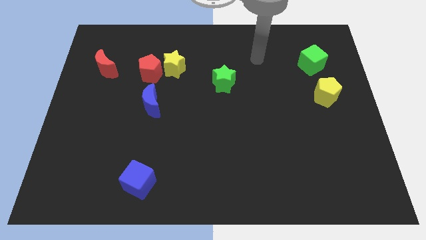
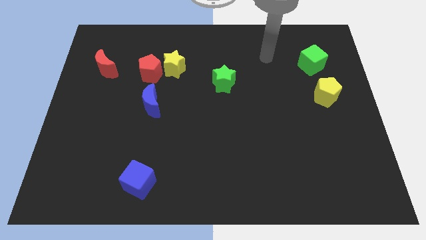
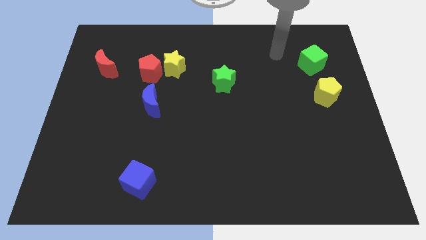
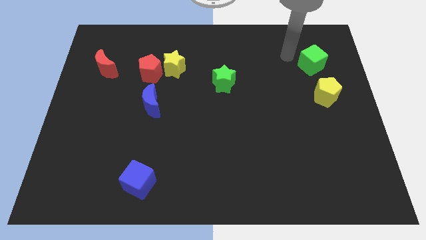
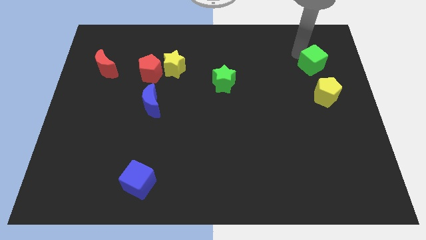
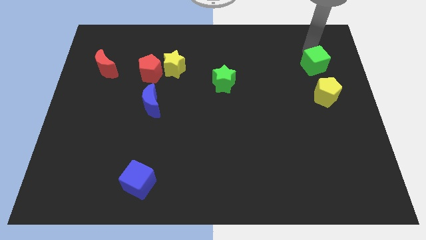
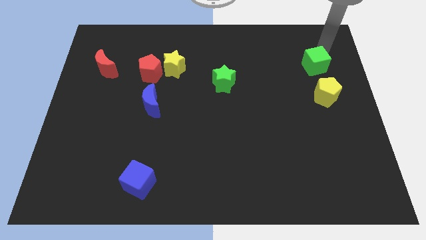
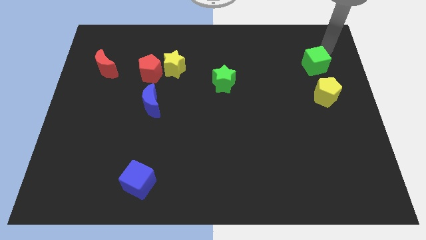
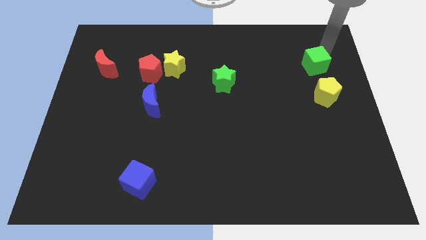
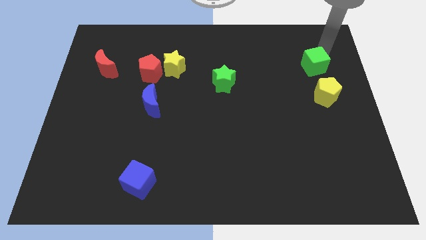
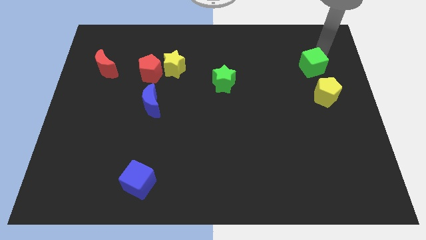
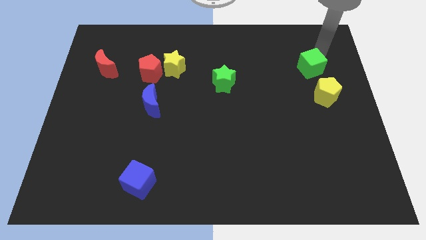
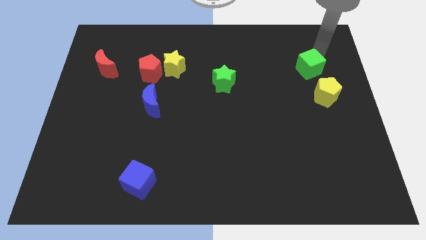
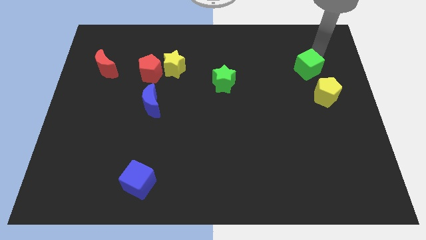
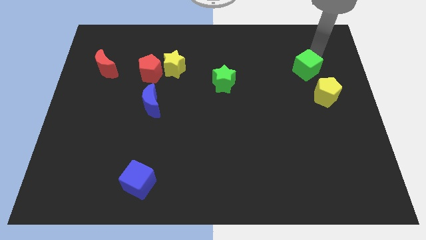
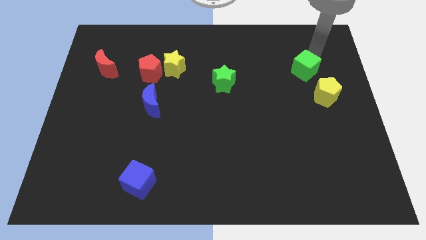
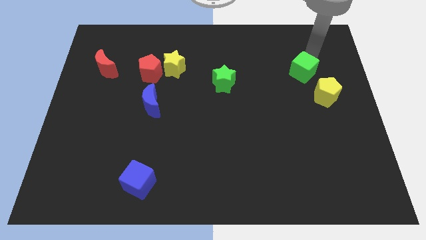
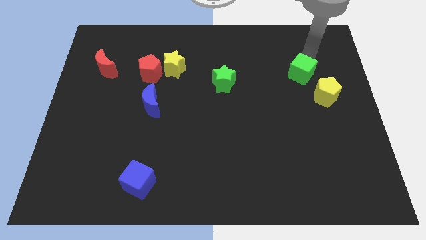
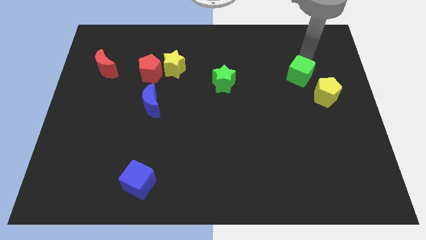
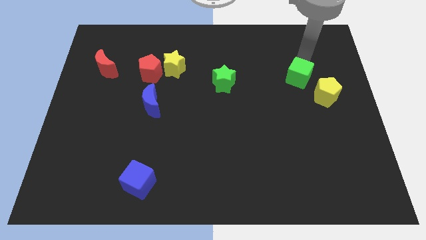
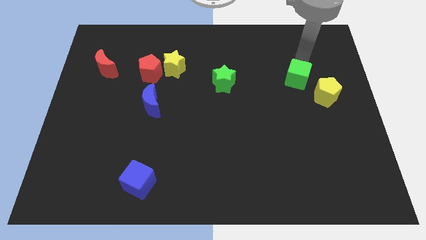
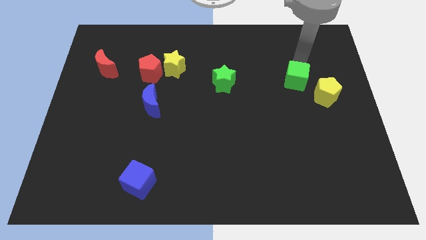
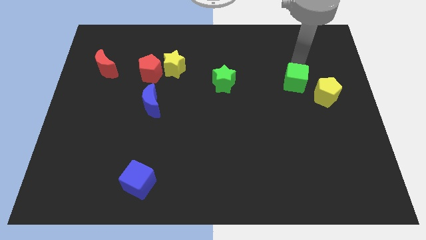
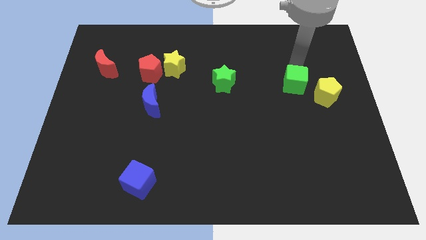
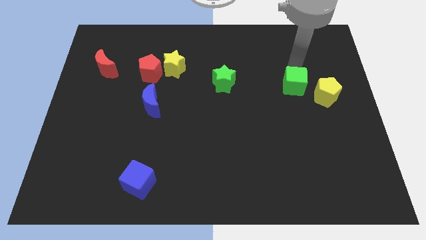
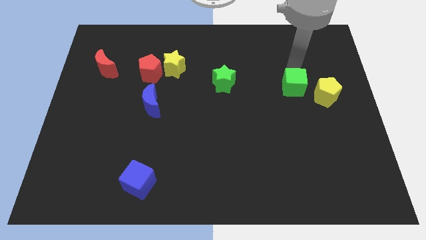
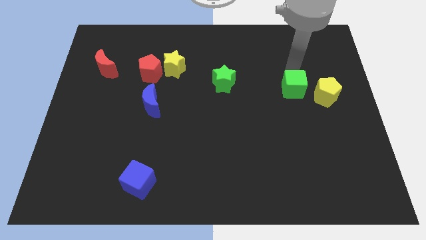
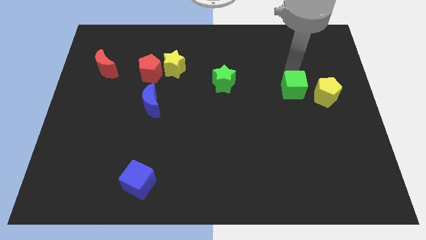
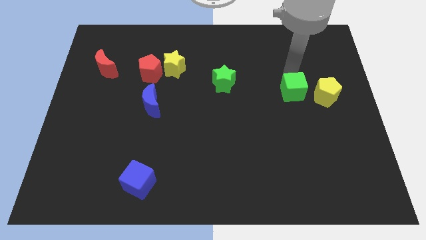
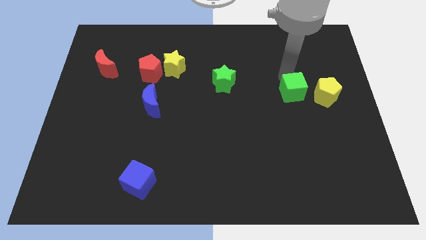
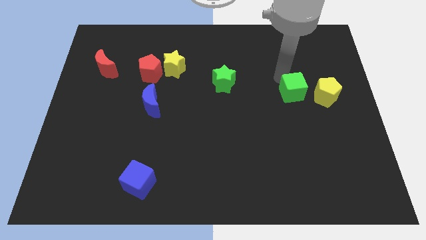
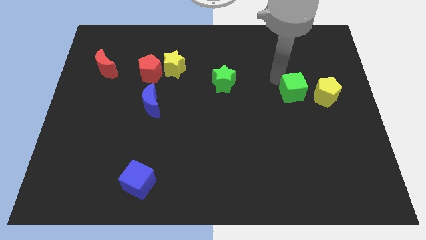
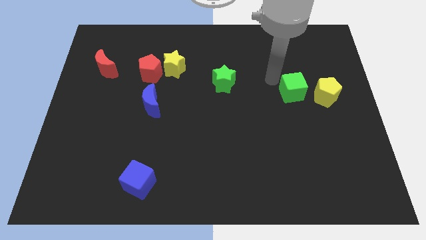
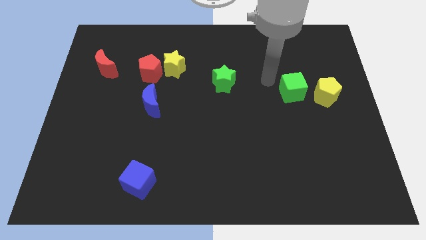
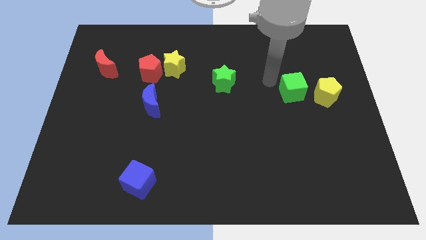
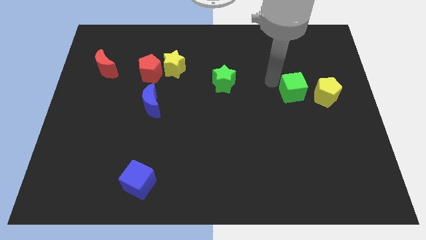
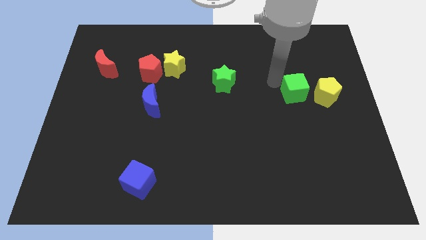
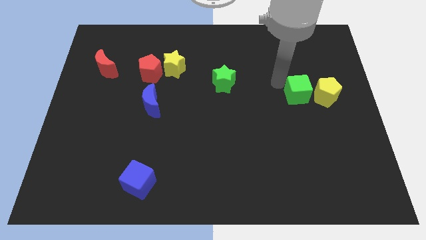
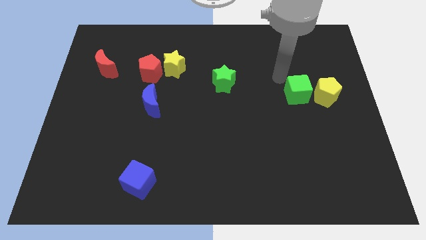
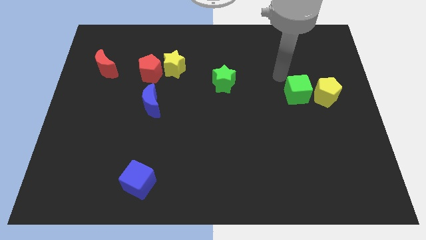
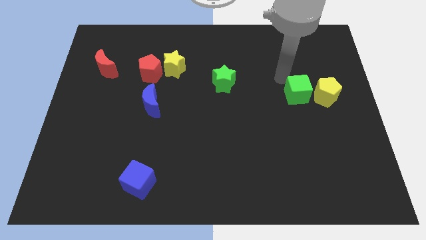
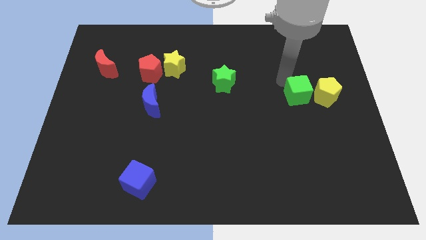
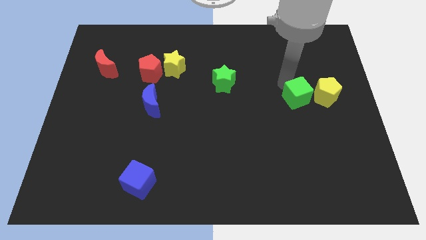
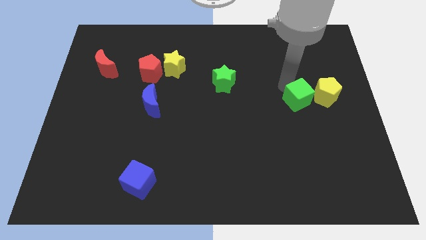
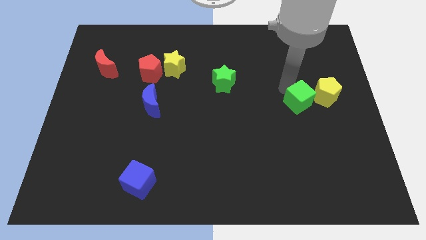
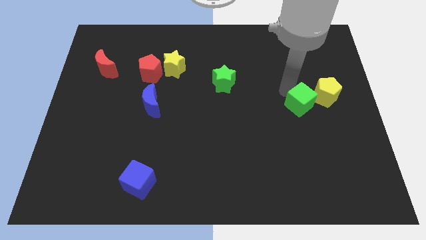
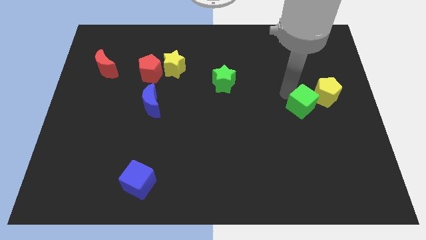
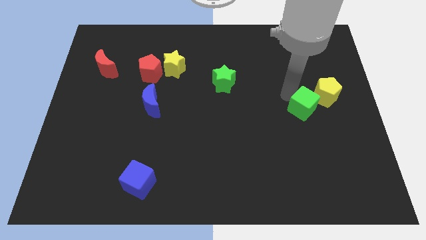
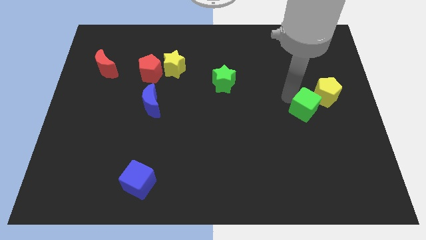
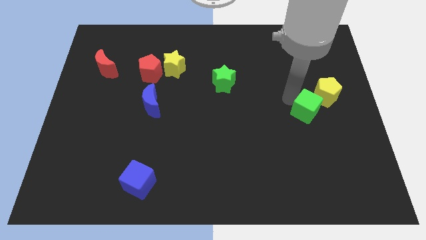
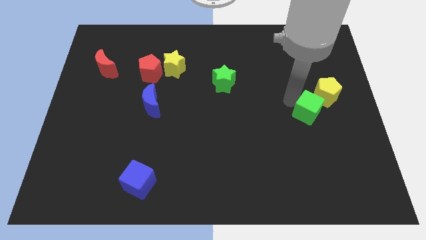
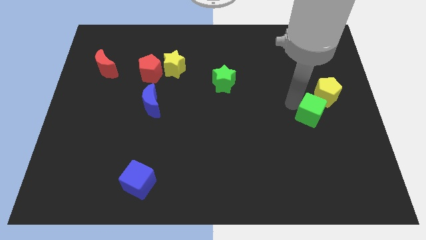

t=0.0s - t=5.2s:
move the green cube below the yellow pentagon

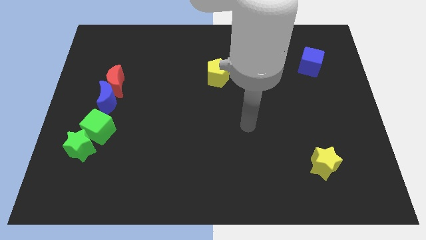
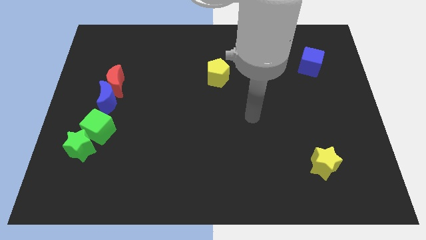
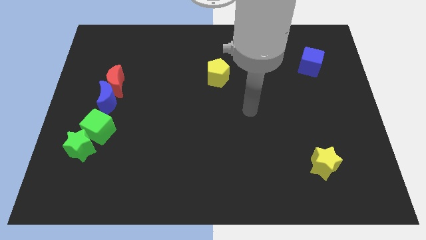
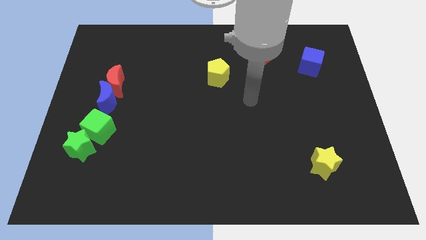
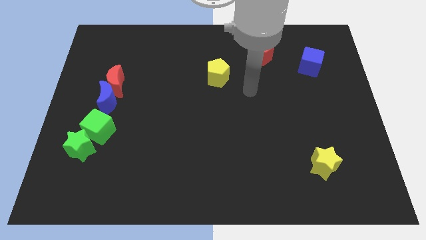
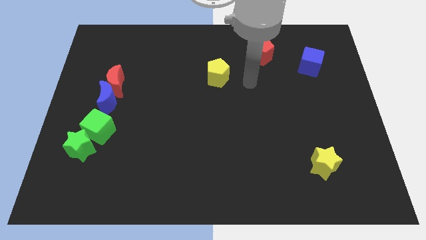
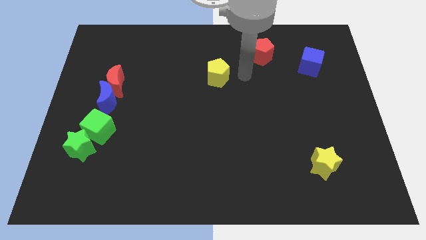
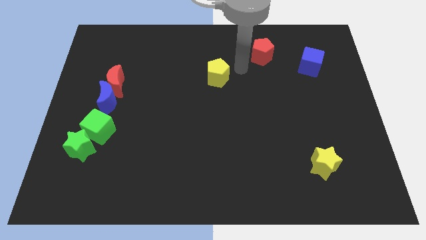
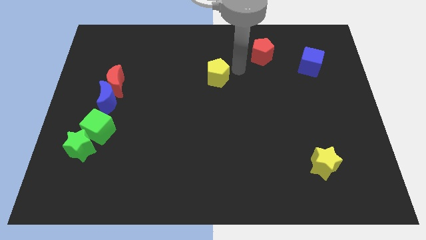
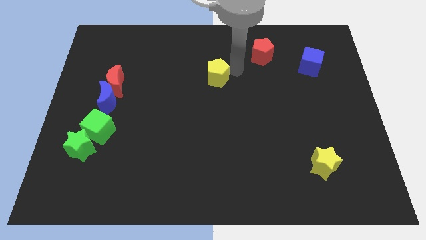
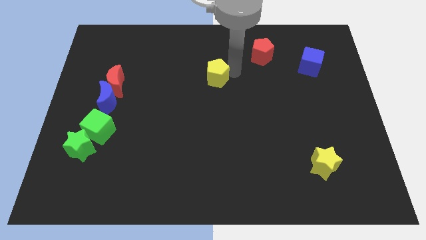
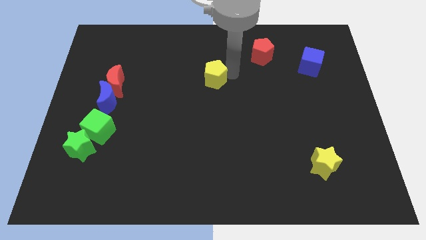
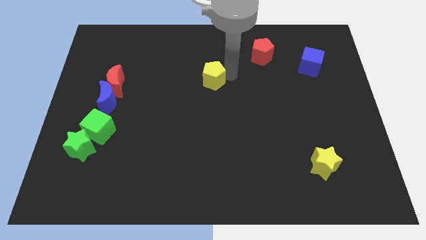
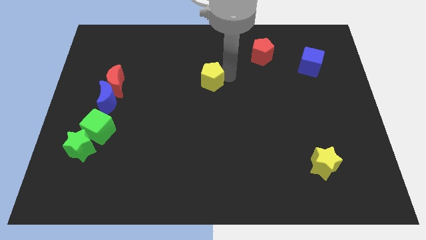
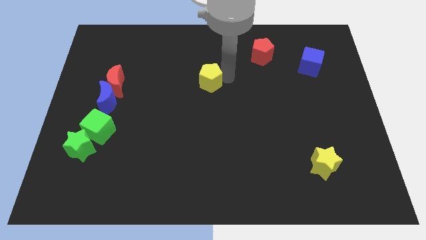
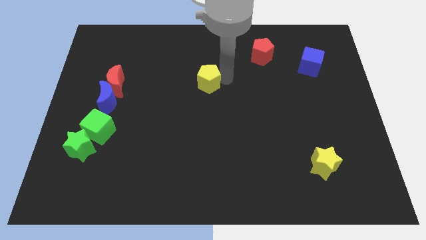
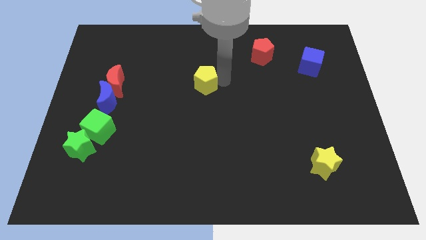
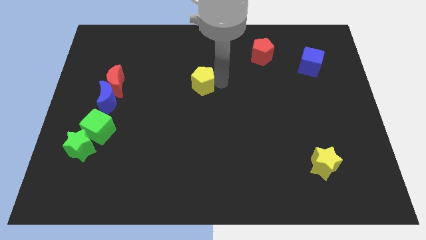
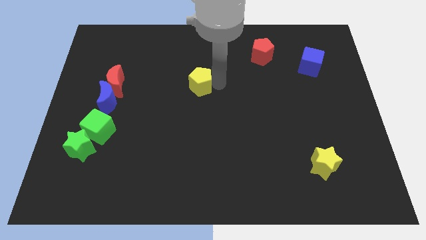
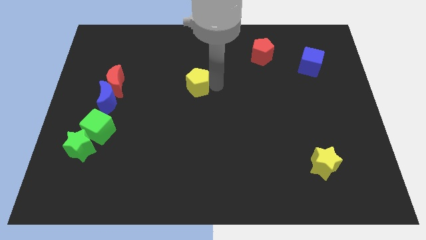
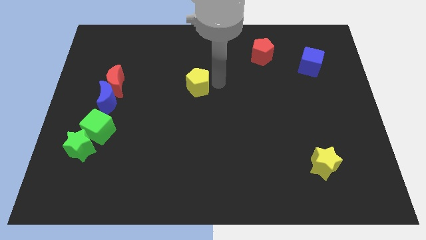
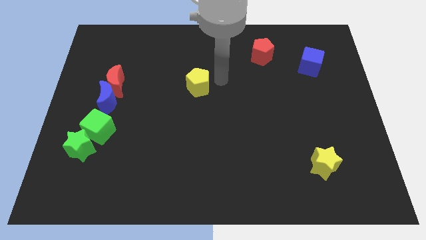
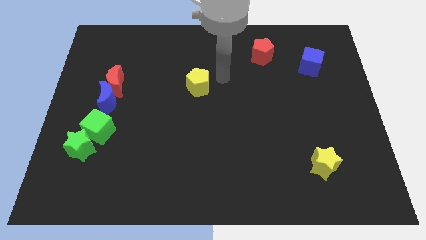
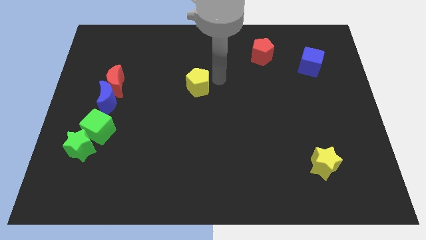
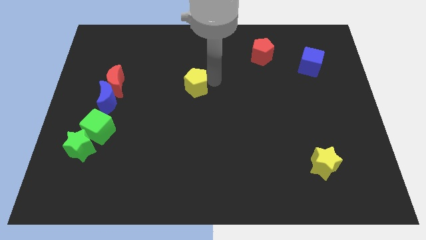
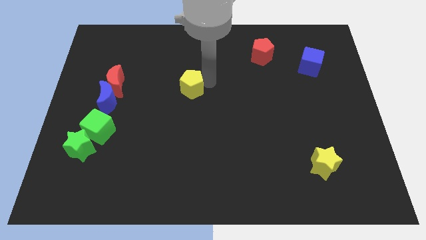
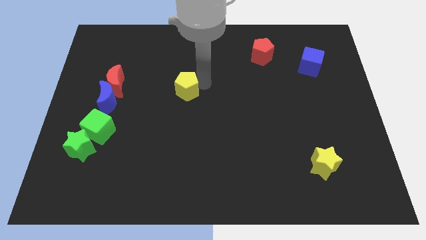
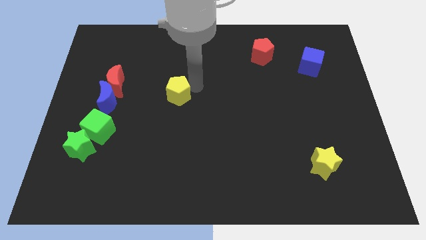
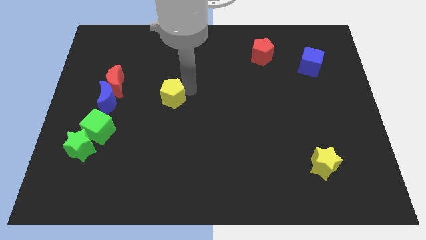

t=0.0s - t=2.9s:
put the yellow pentagon right of the blue moon
